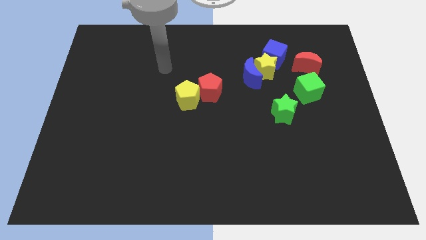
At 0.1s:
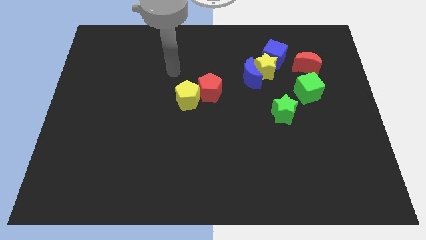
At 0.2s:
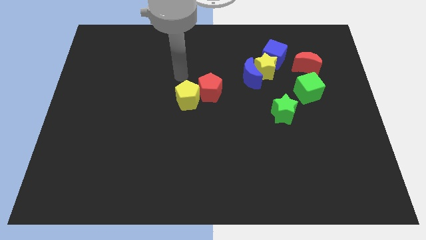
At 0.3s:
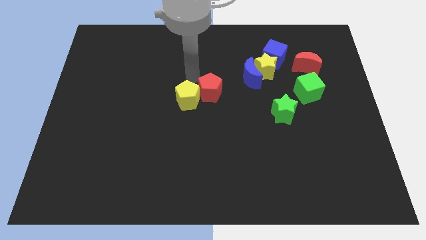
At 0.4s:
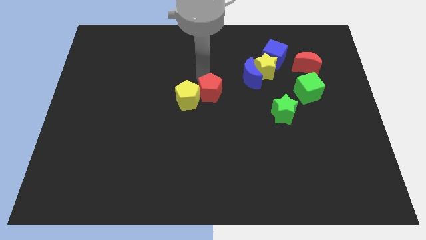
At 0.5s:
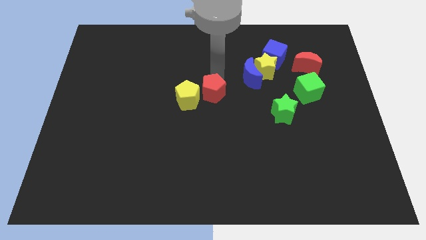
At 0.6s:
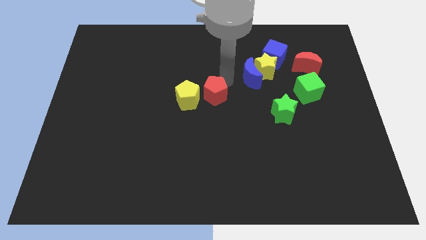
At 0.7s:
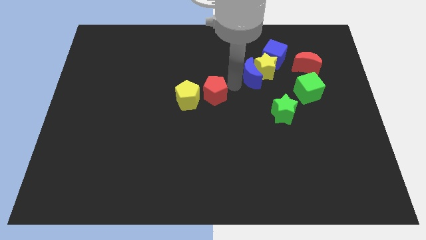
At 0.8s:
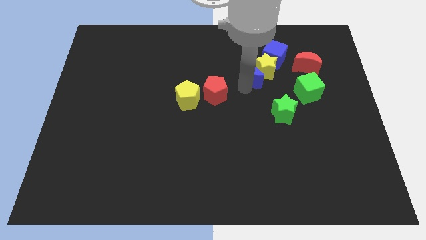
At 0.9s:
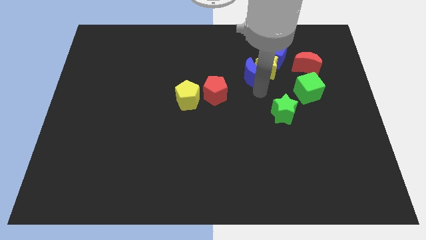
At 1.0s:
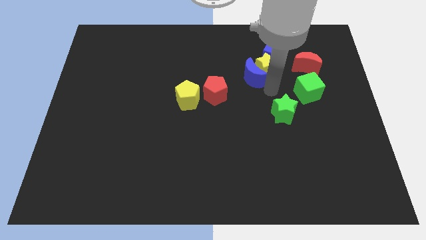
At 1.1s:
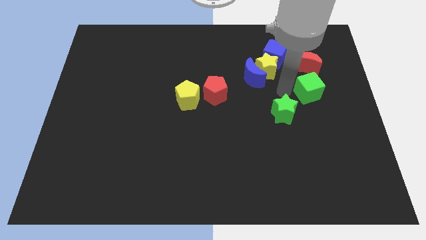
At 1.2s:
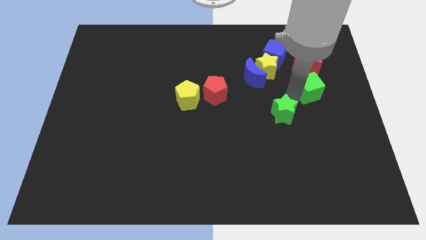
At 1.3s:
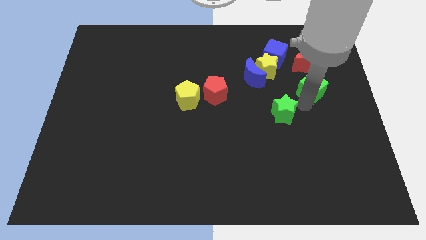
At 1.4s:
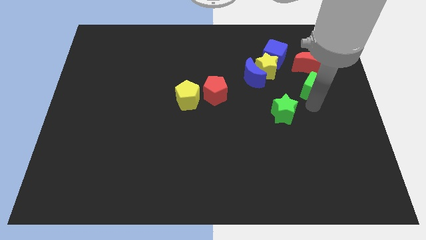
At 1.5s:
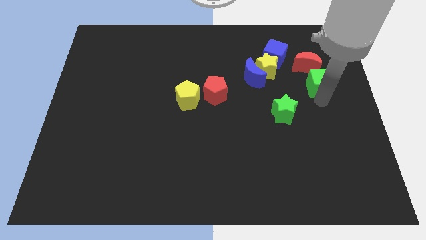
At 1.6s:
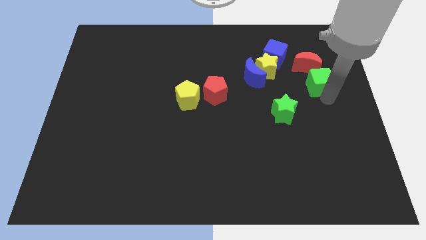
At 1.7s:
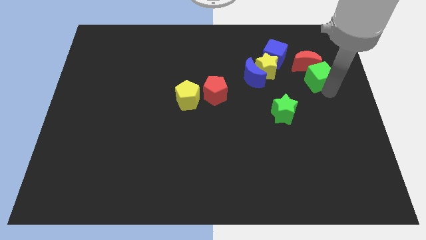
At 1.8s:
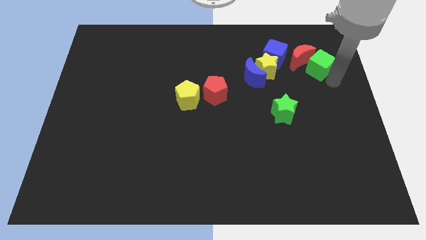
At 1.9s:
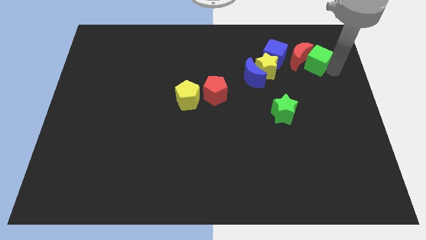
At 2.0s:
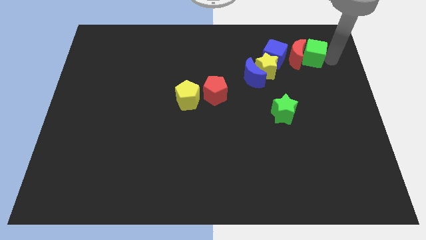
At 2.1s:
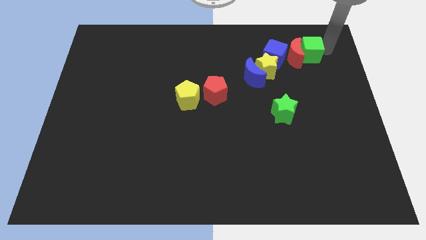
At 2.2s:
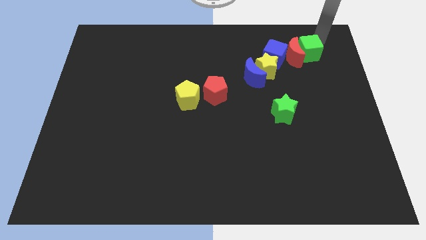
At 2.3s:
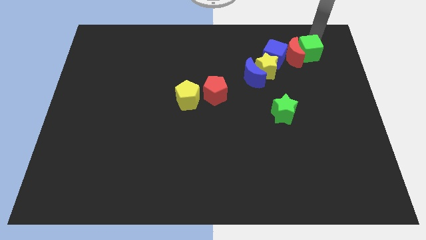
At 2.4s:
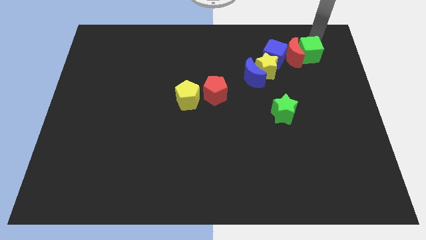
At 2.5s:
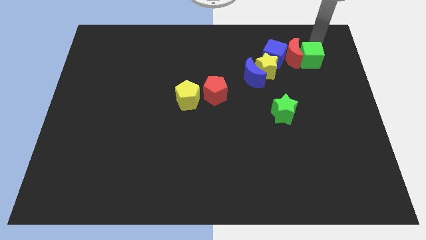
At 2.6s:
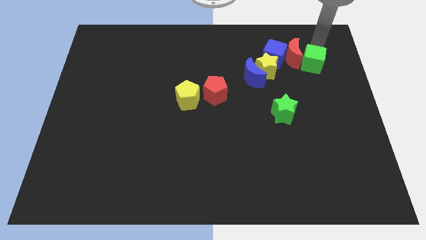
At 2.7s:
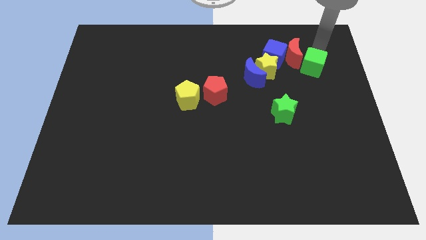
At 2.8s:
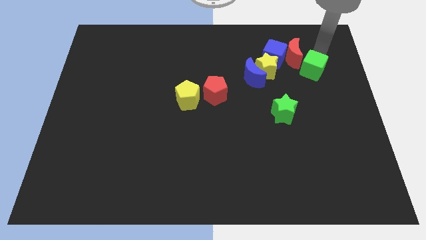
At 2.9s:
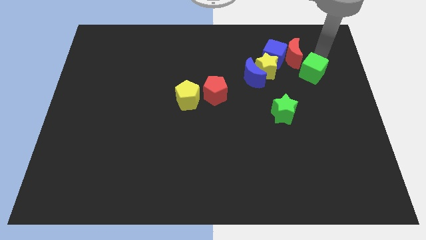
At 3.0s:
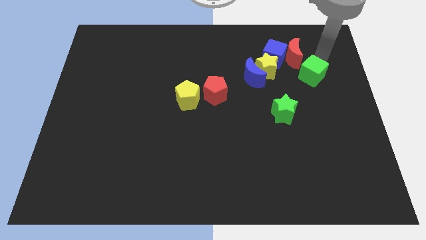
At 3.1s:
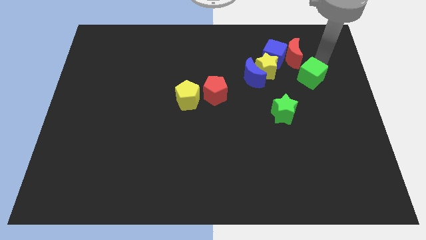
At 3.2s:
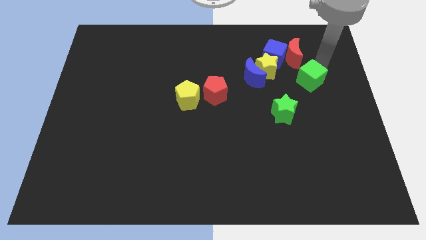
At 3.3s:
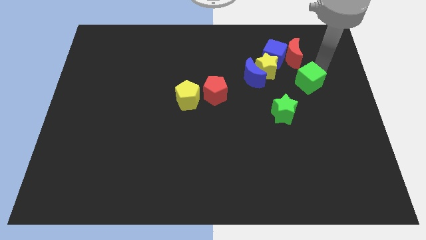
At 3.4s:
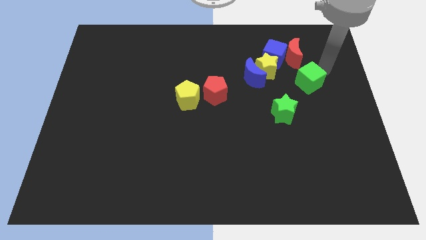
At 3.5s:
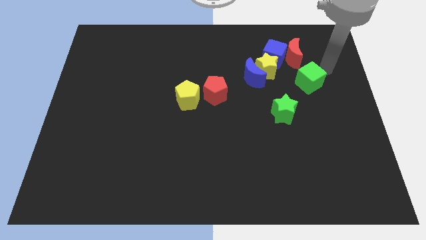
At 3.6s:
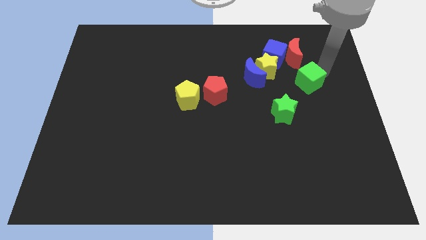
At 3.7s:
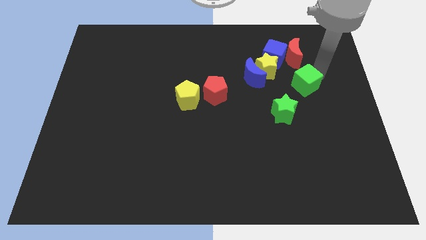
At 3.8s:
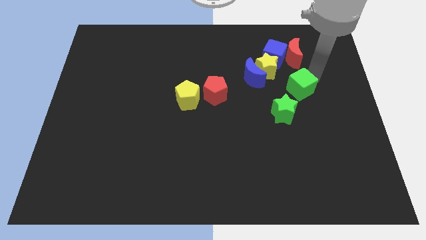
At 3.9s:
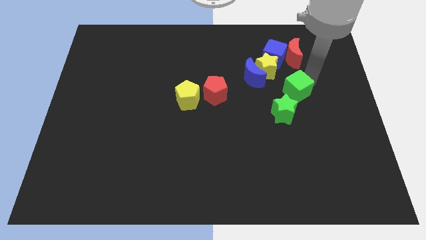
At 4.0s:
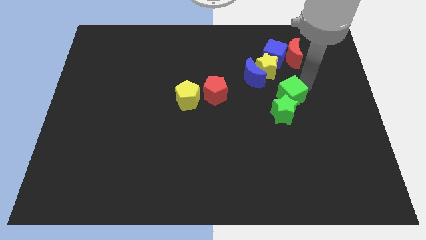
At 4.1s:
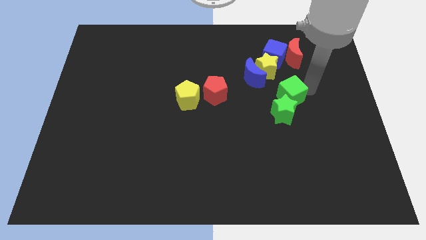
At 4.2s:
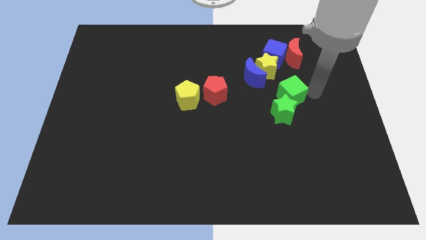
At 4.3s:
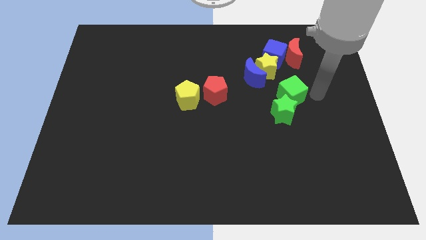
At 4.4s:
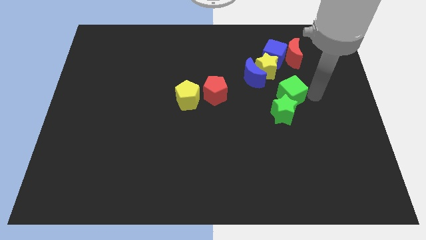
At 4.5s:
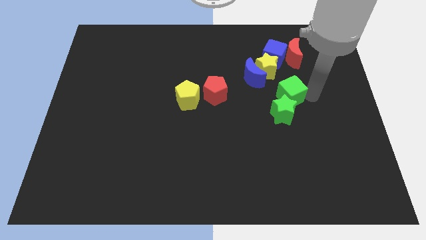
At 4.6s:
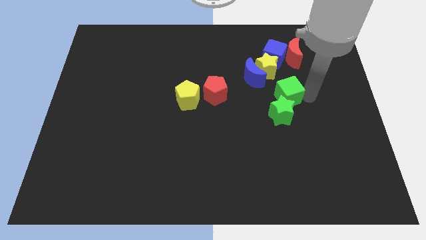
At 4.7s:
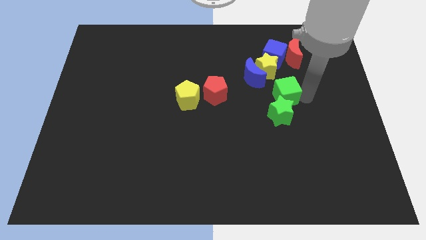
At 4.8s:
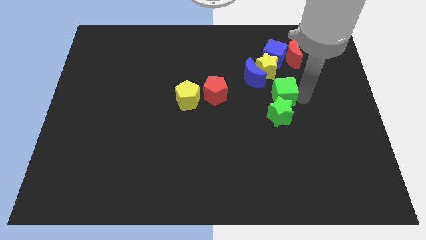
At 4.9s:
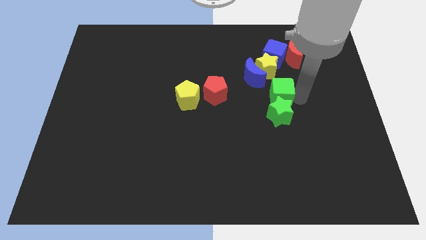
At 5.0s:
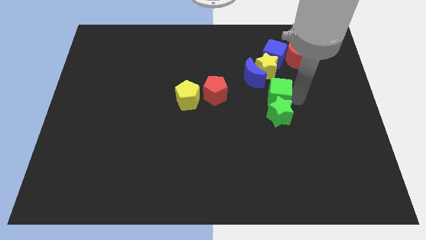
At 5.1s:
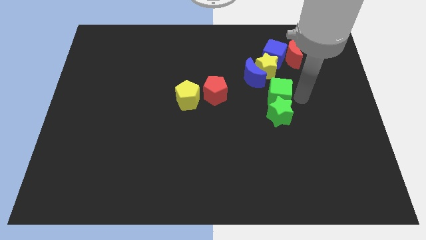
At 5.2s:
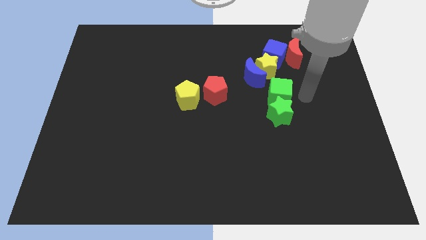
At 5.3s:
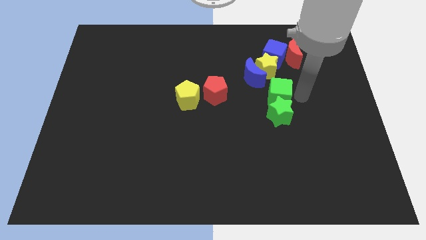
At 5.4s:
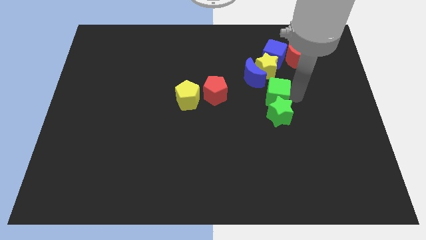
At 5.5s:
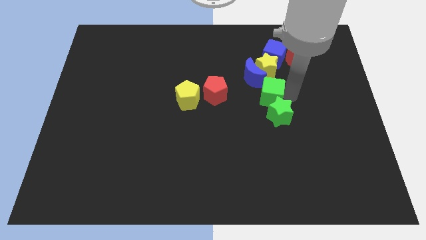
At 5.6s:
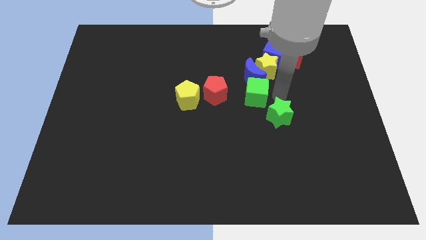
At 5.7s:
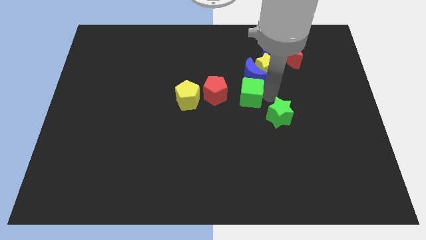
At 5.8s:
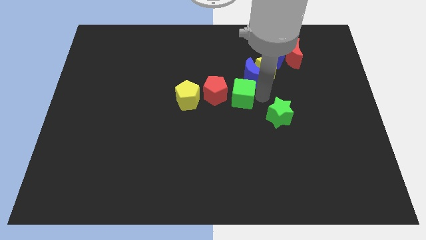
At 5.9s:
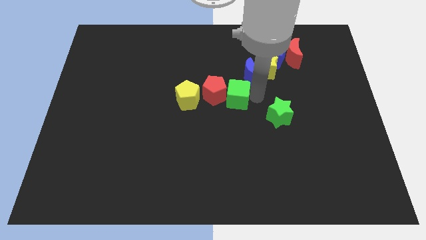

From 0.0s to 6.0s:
slide the green cube towards the red pentagon

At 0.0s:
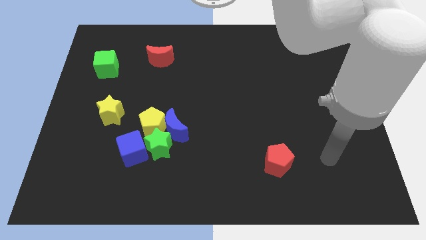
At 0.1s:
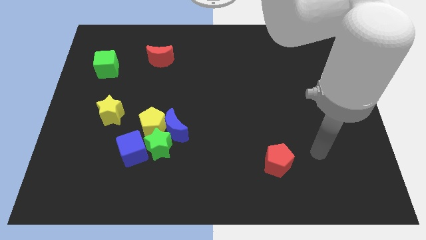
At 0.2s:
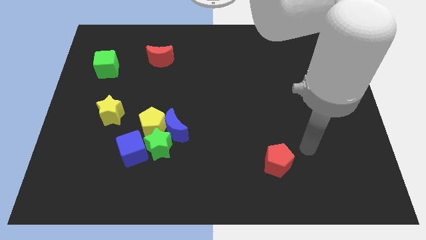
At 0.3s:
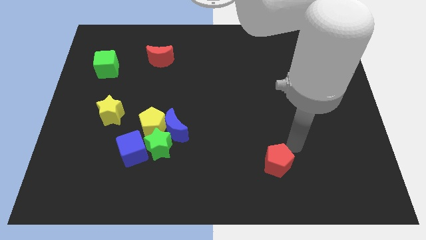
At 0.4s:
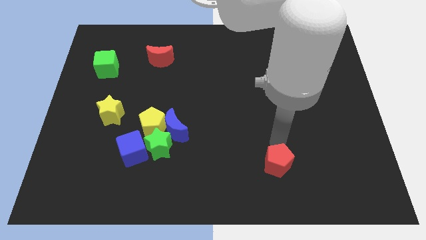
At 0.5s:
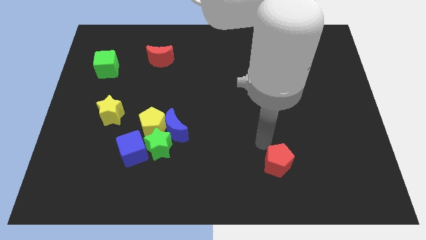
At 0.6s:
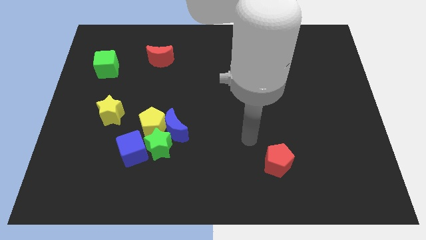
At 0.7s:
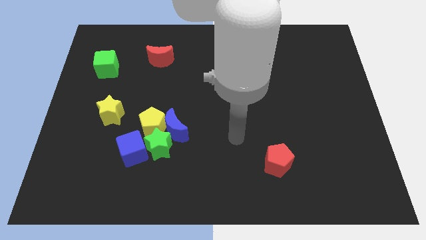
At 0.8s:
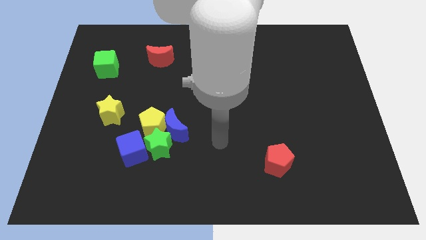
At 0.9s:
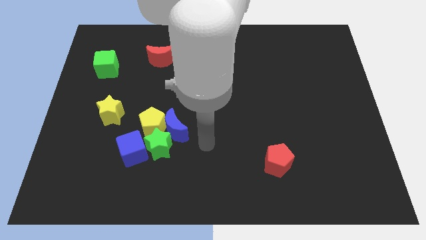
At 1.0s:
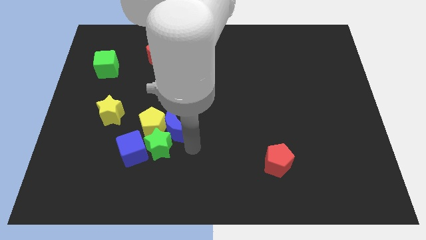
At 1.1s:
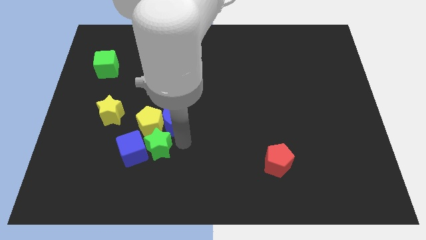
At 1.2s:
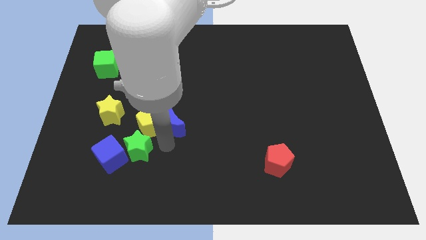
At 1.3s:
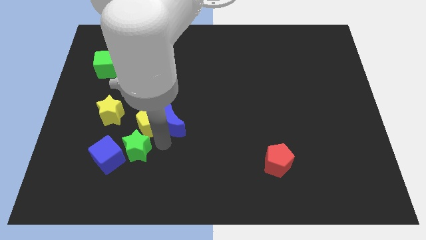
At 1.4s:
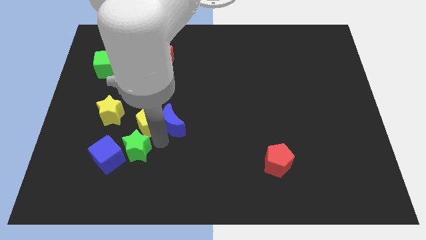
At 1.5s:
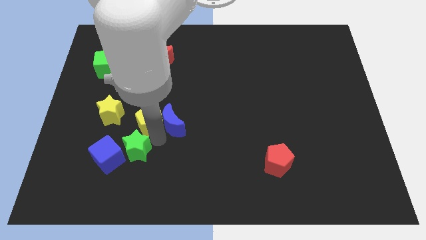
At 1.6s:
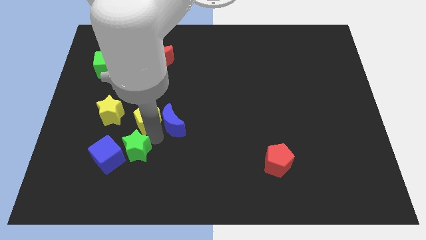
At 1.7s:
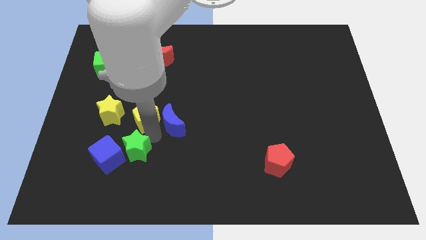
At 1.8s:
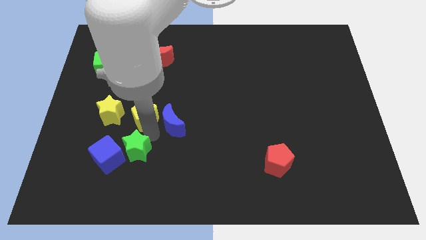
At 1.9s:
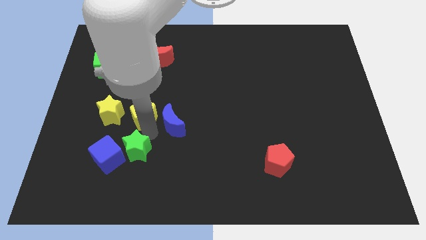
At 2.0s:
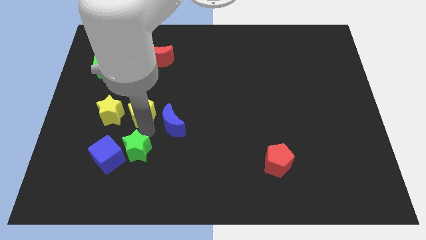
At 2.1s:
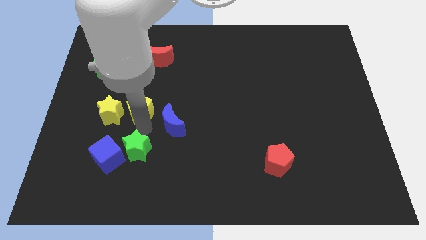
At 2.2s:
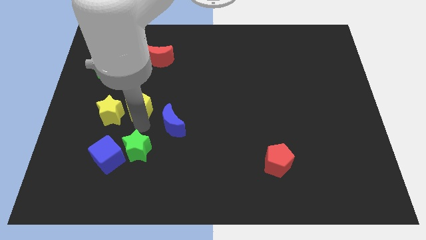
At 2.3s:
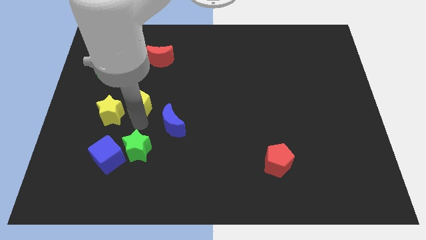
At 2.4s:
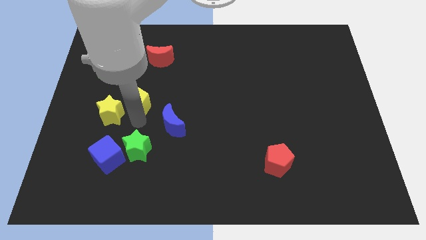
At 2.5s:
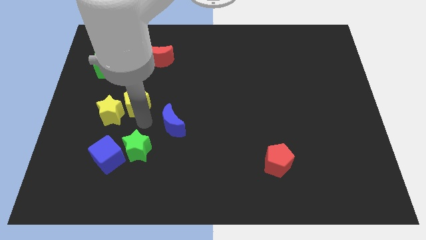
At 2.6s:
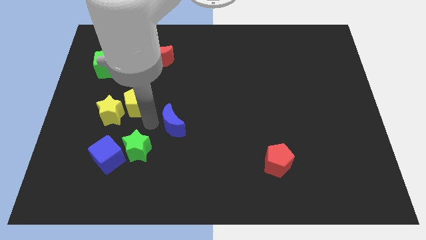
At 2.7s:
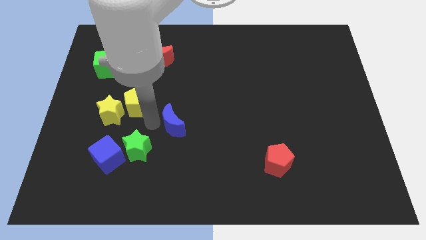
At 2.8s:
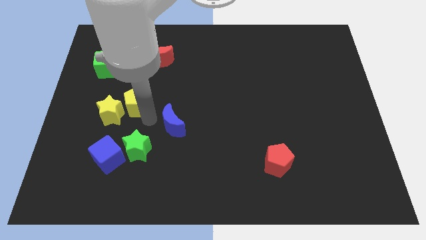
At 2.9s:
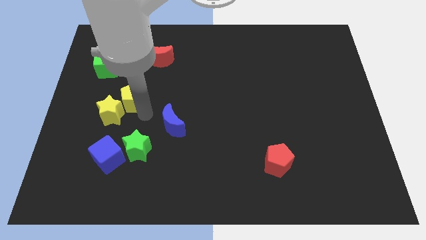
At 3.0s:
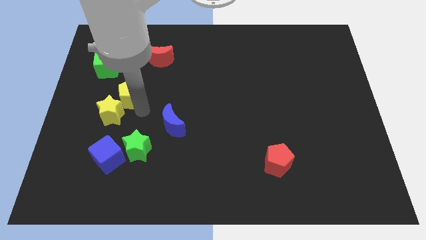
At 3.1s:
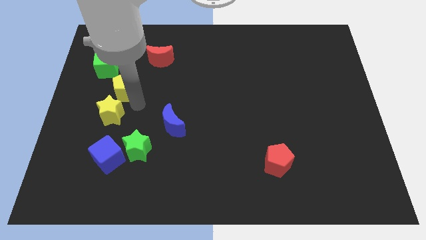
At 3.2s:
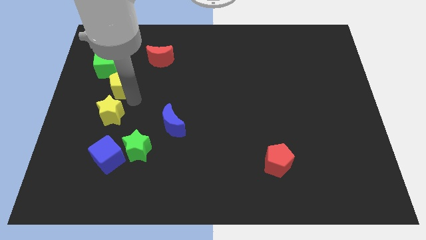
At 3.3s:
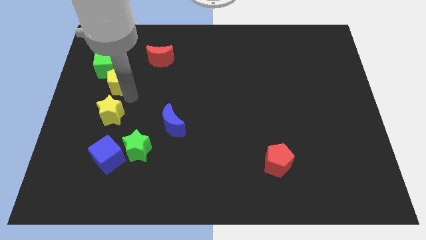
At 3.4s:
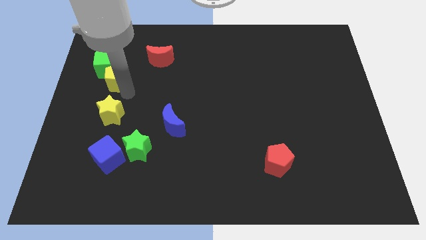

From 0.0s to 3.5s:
move the yellow pentagon next to the green cube
